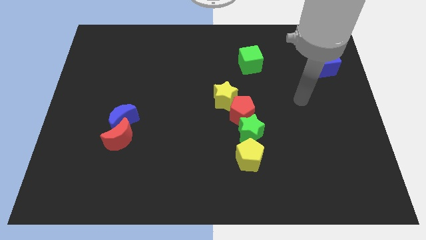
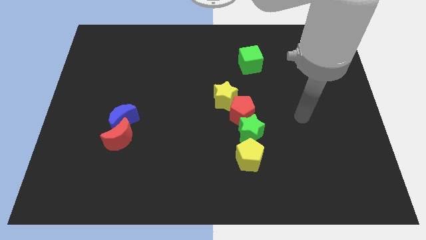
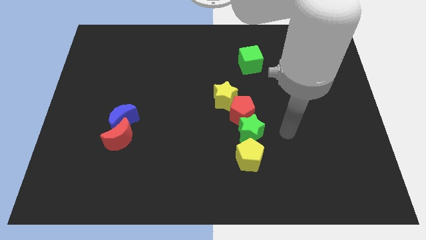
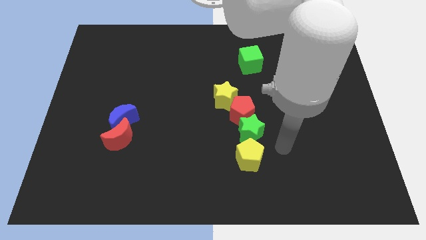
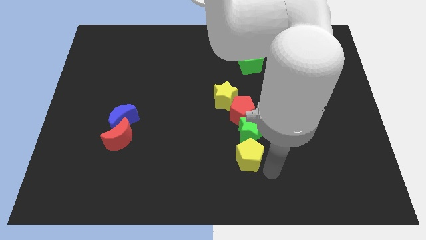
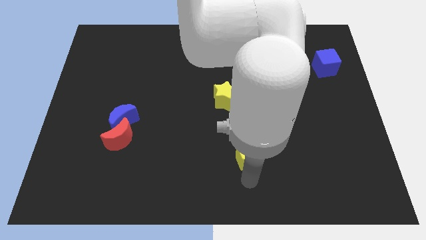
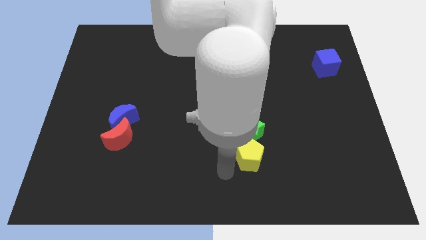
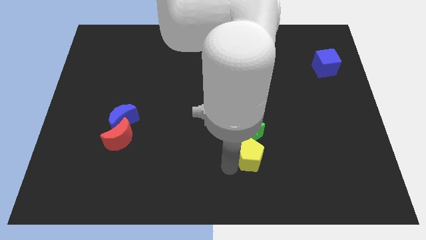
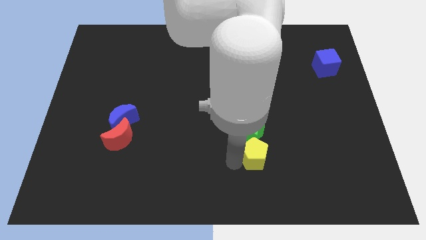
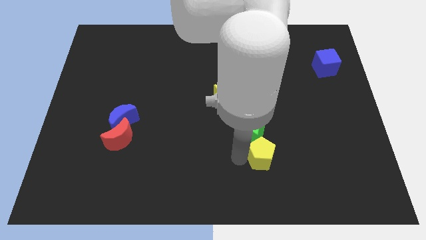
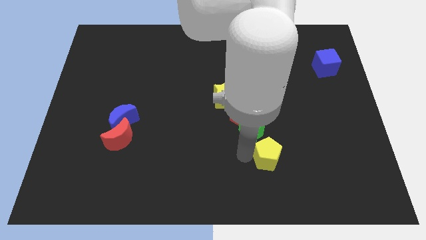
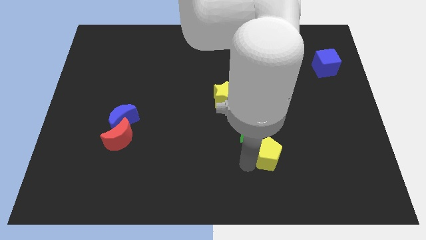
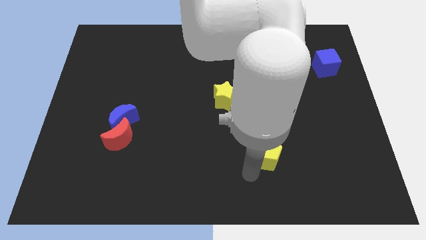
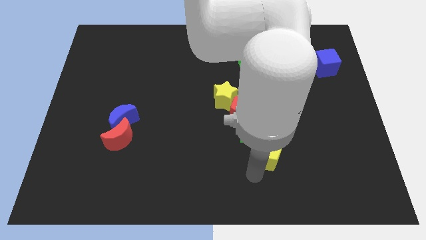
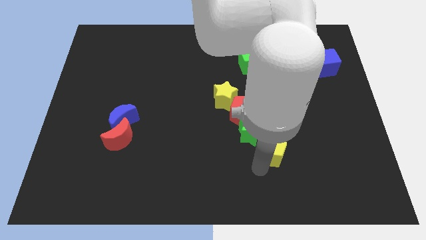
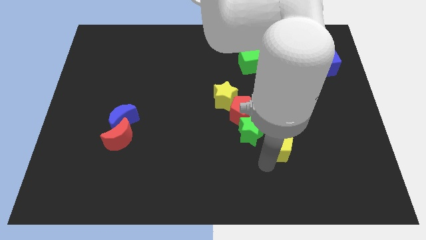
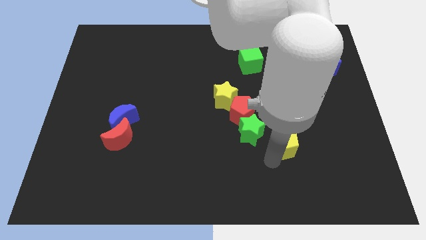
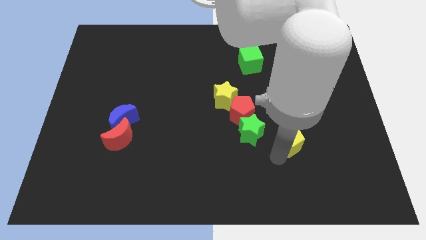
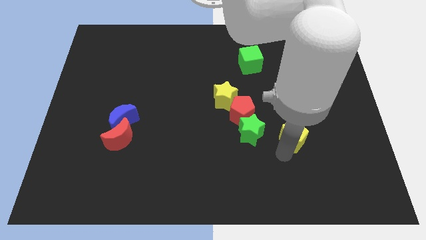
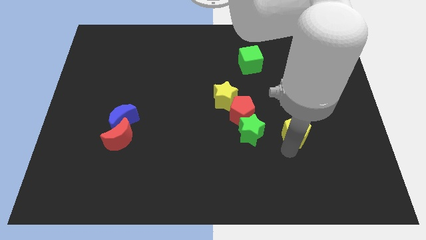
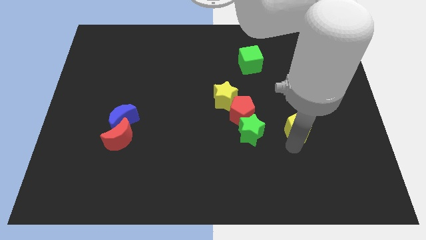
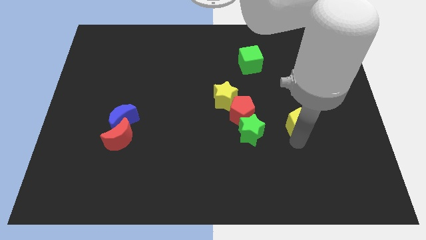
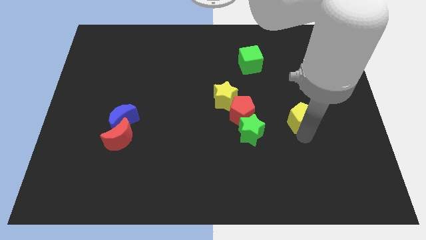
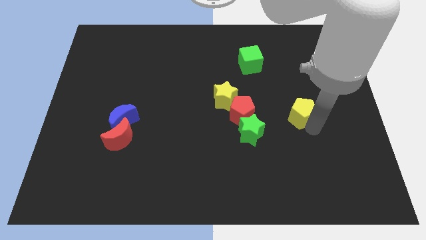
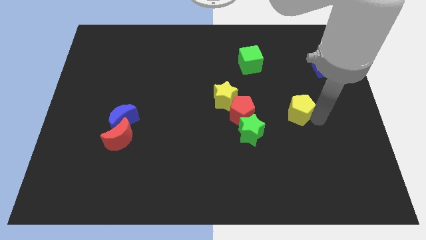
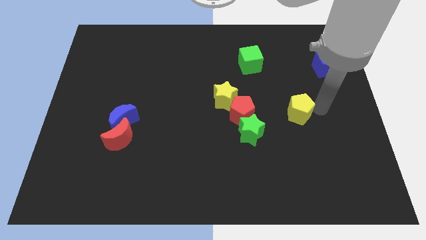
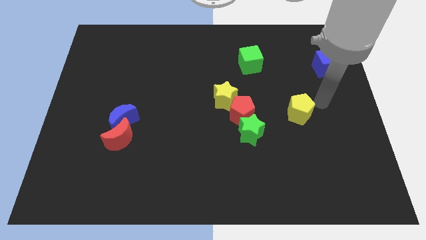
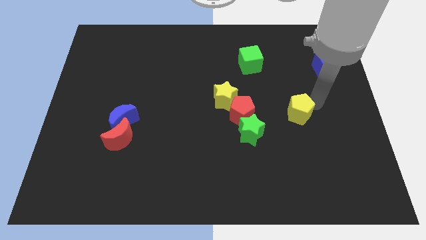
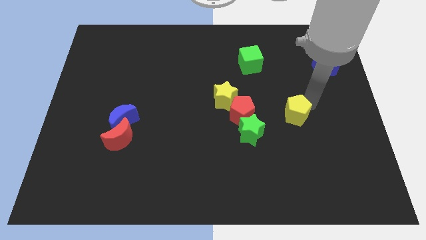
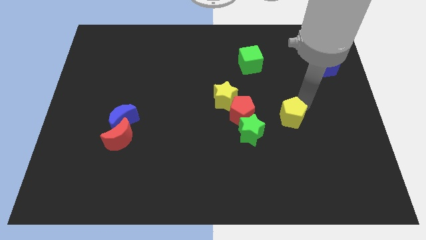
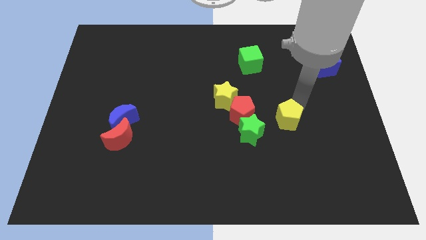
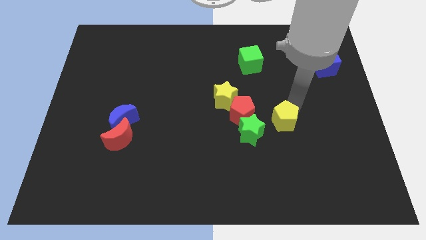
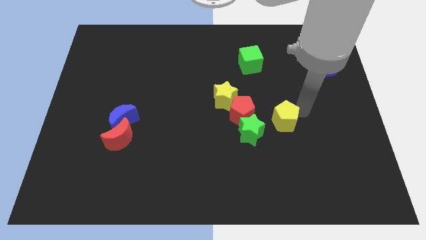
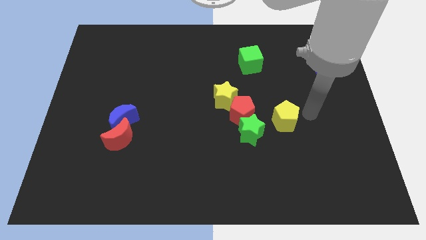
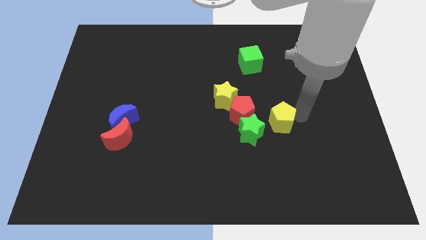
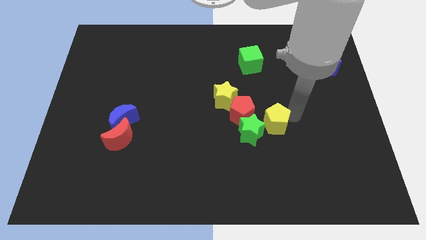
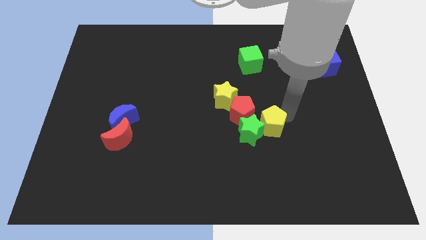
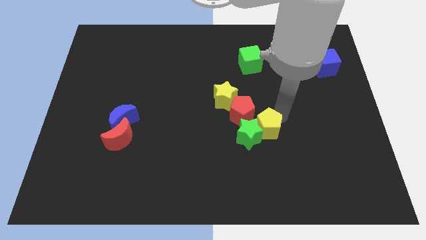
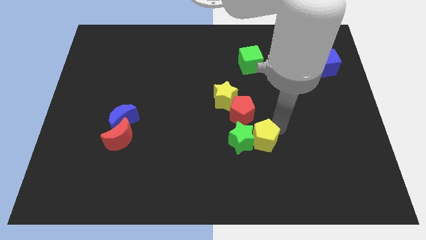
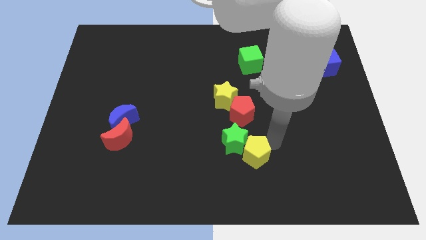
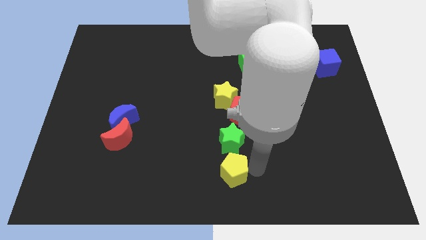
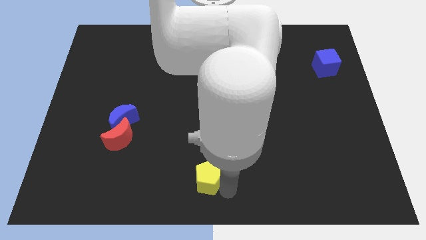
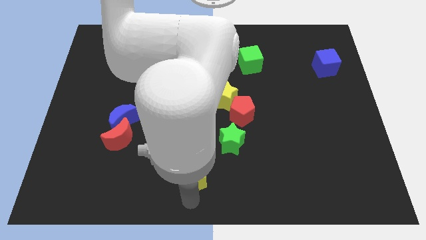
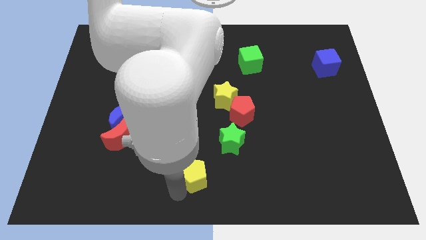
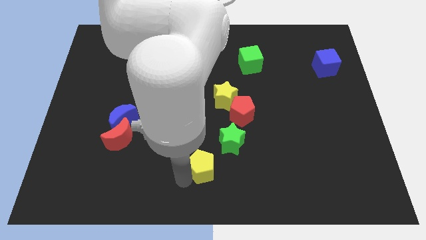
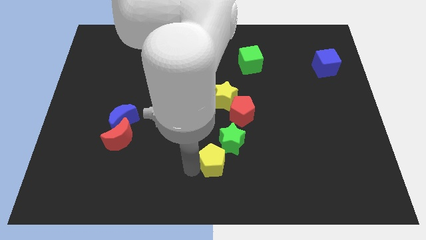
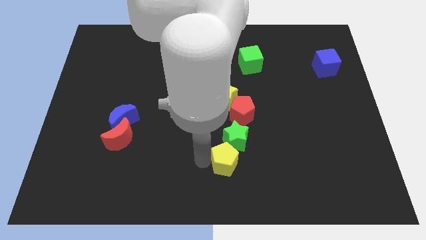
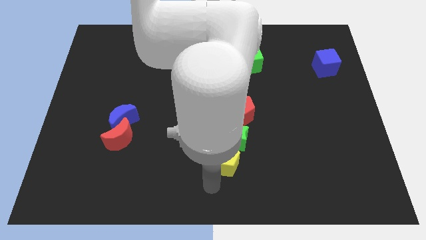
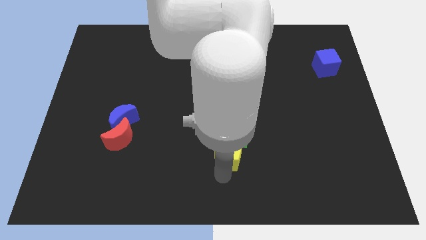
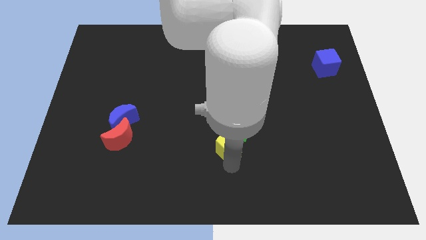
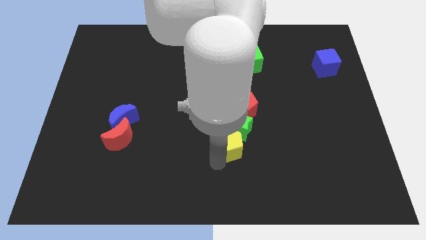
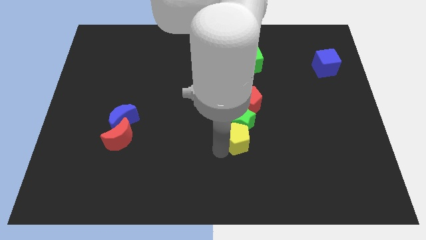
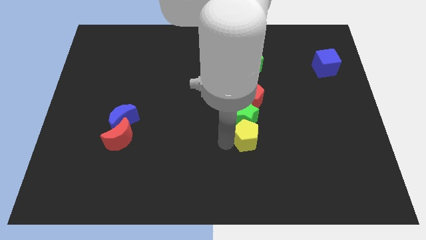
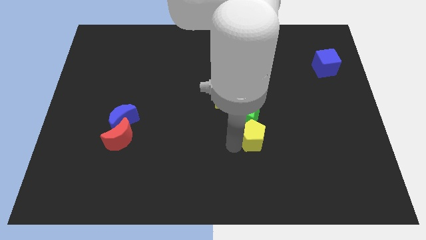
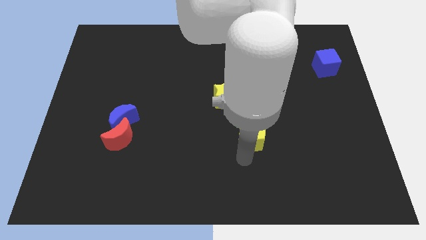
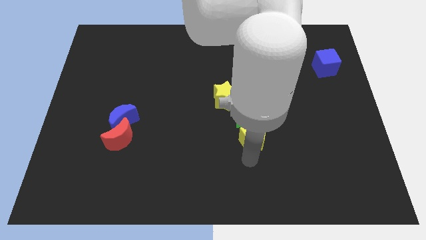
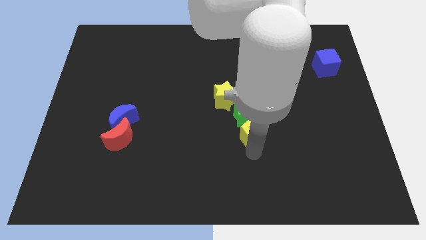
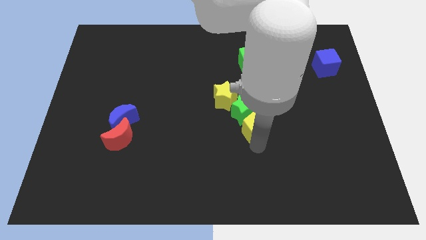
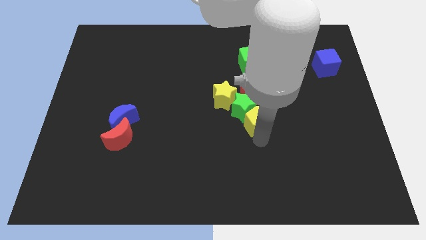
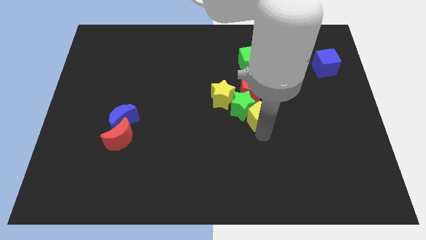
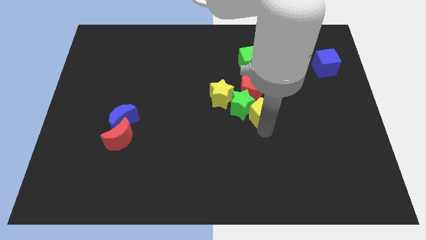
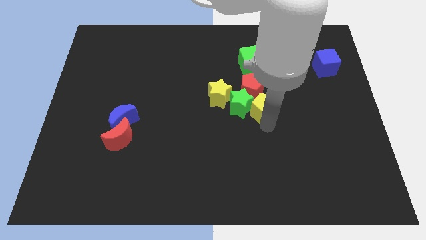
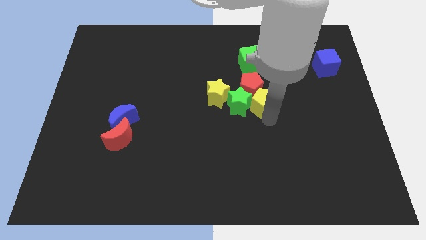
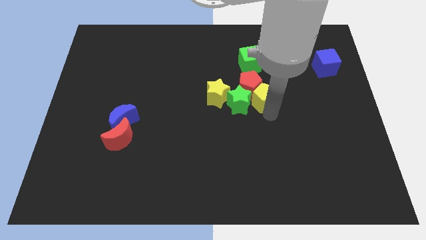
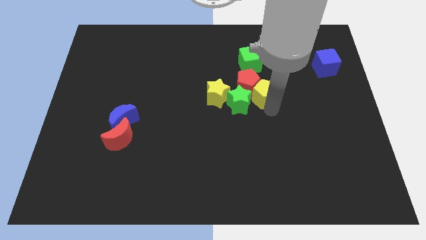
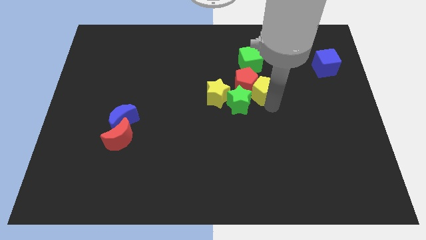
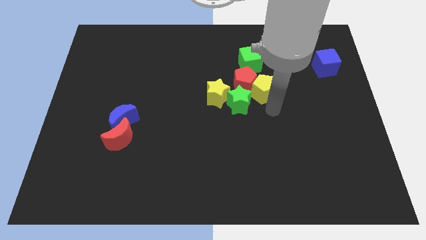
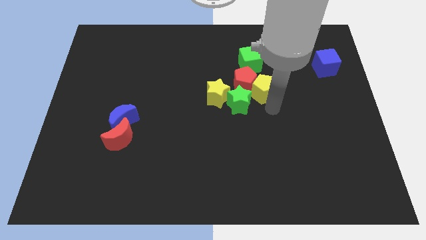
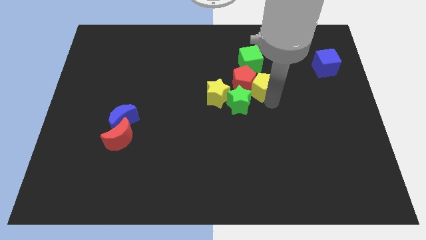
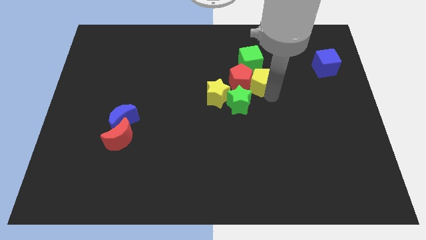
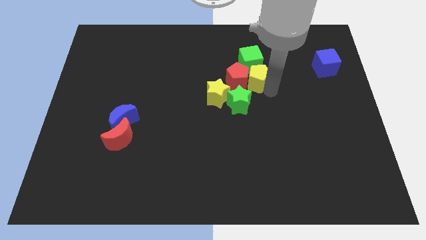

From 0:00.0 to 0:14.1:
move the yellow pentagon towards the green cube

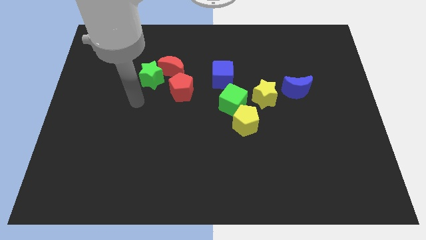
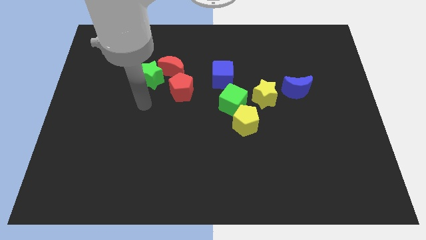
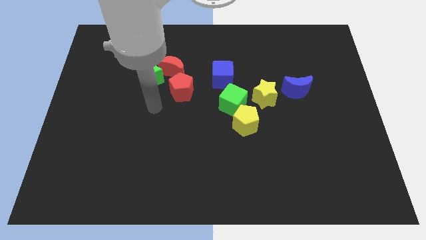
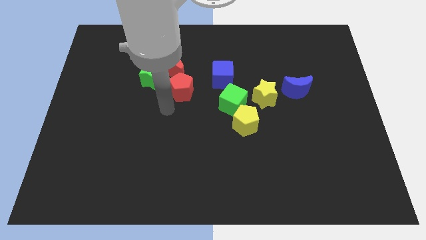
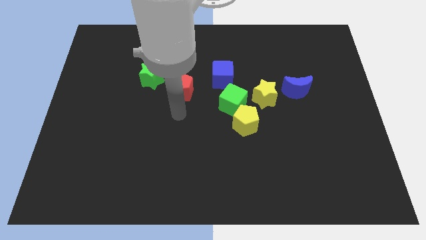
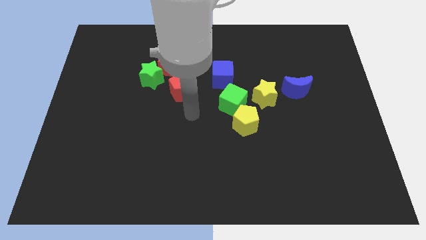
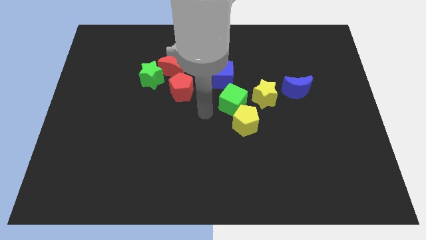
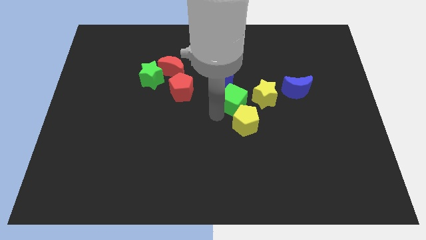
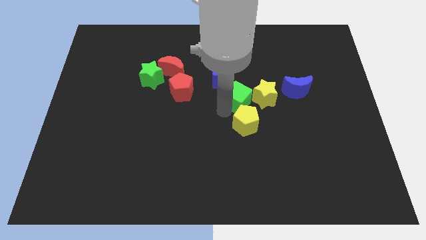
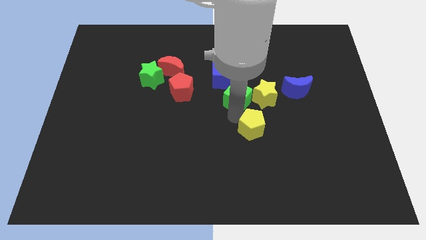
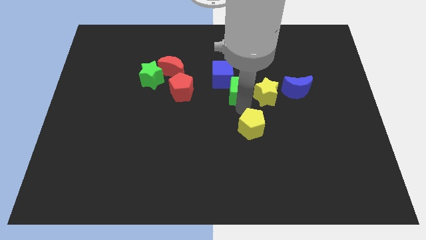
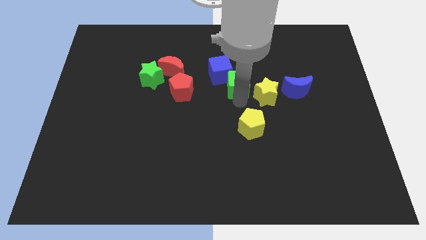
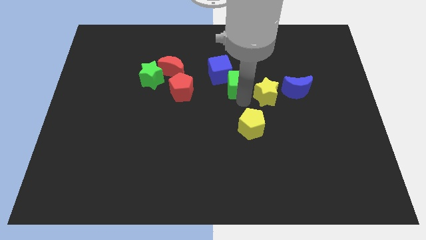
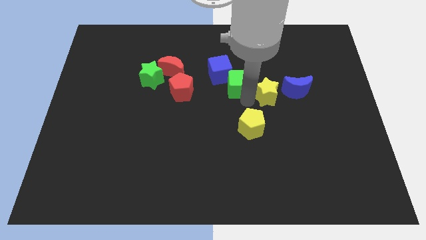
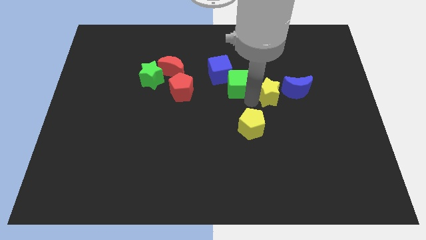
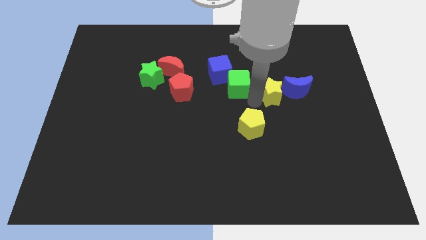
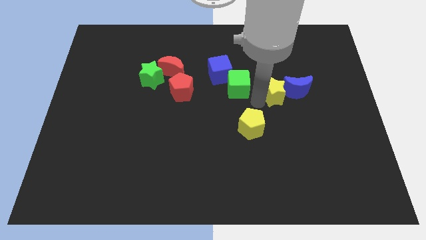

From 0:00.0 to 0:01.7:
push the yellow star to the blue moon
